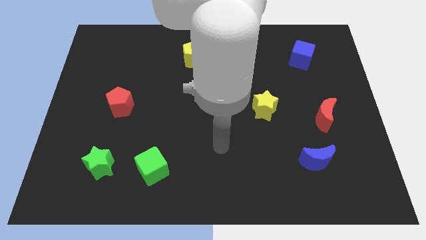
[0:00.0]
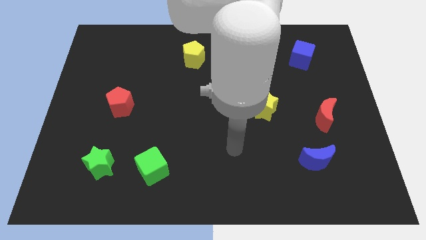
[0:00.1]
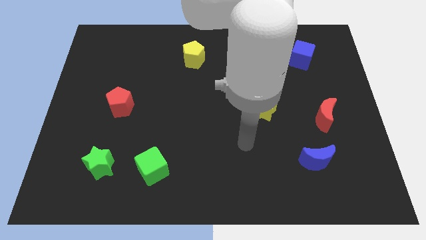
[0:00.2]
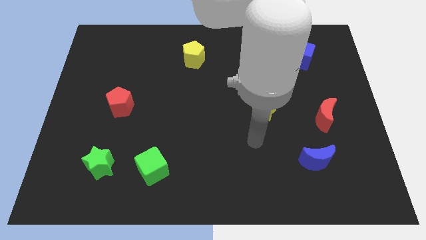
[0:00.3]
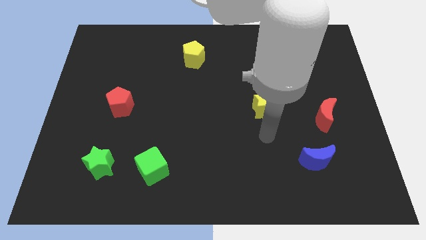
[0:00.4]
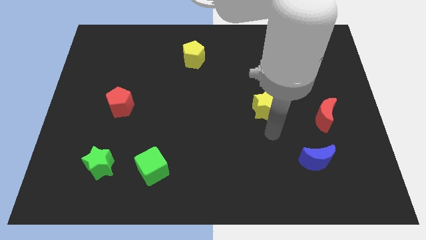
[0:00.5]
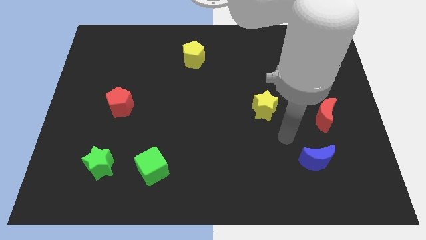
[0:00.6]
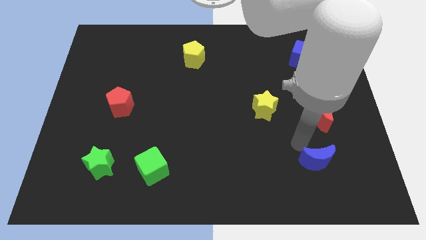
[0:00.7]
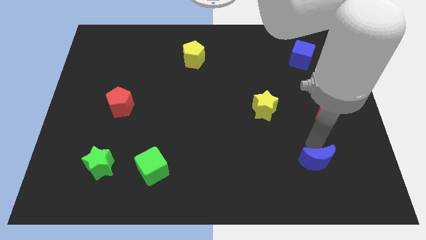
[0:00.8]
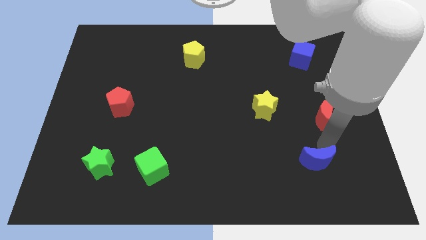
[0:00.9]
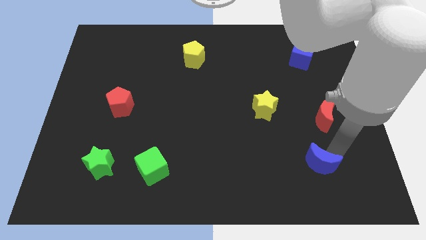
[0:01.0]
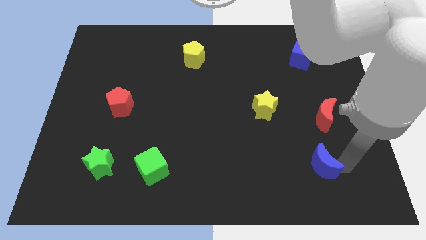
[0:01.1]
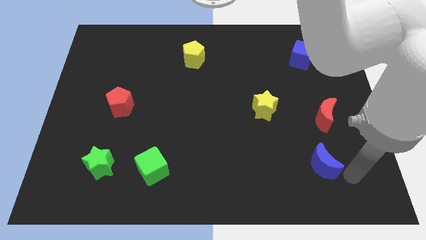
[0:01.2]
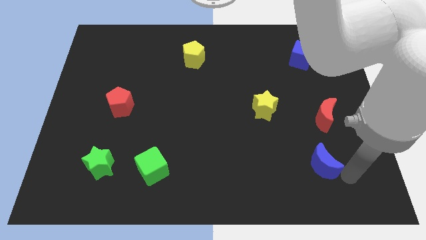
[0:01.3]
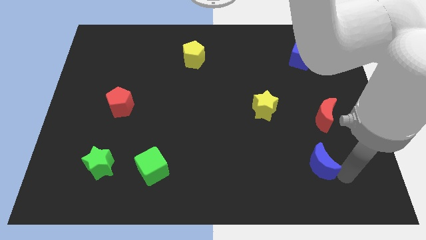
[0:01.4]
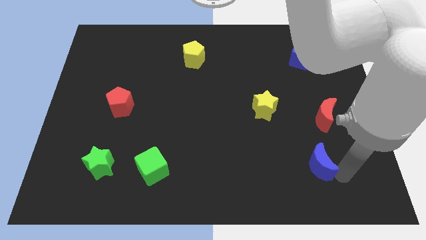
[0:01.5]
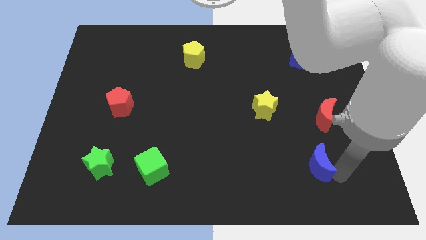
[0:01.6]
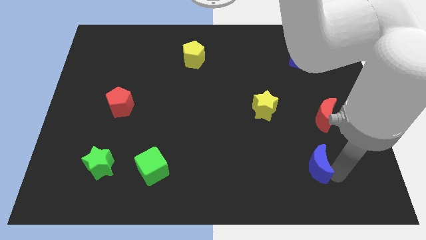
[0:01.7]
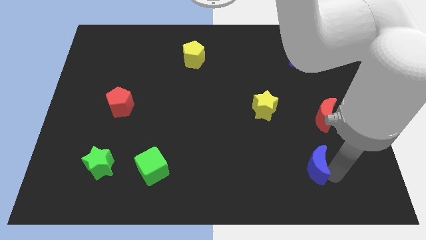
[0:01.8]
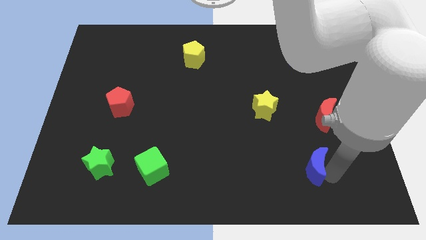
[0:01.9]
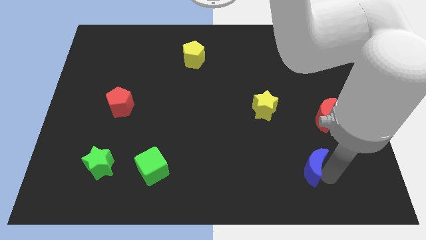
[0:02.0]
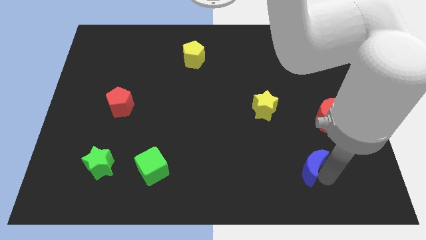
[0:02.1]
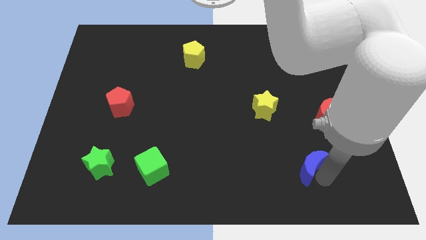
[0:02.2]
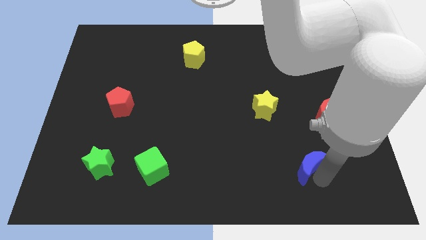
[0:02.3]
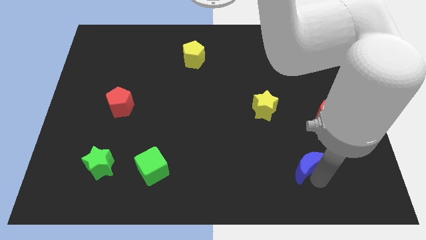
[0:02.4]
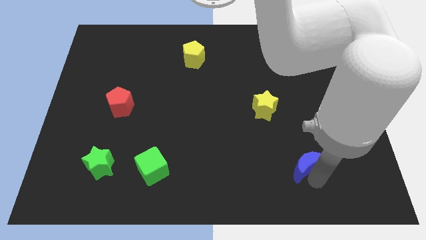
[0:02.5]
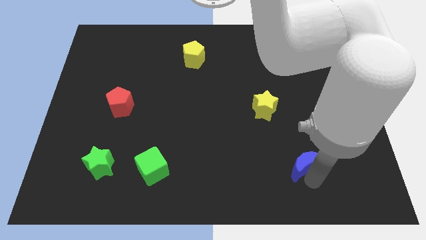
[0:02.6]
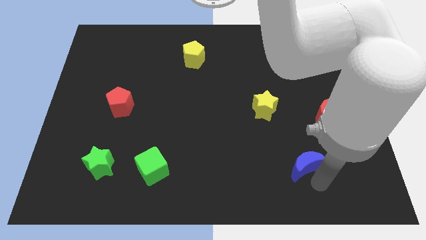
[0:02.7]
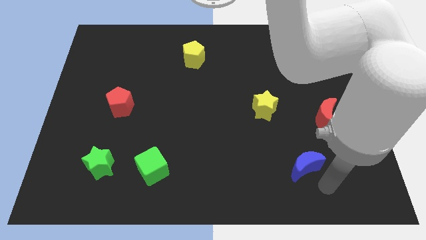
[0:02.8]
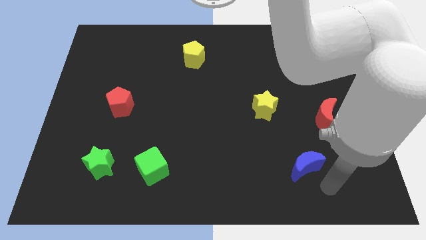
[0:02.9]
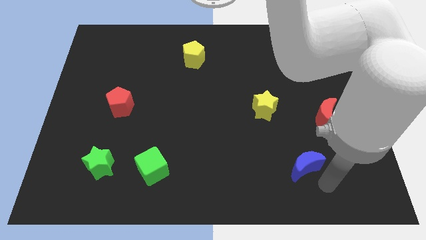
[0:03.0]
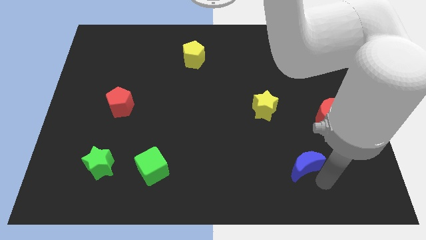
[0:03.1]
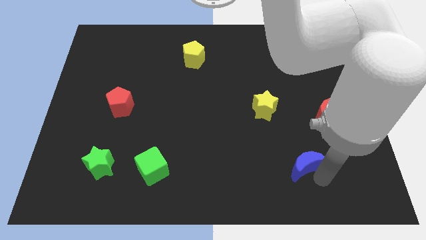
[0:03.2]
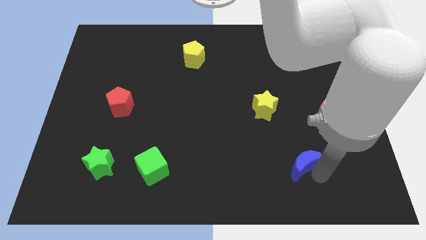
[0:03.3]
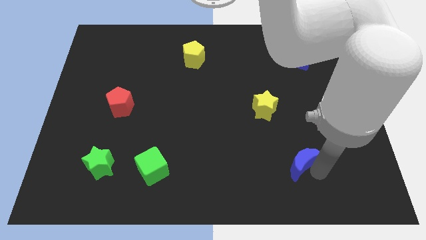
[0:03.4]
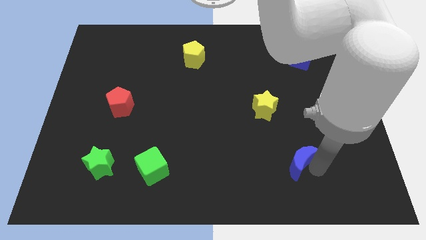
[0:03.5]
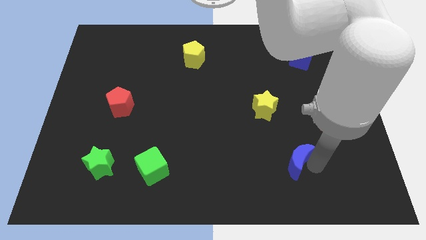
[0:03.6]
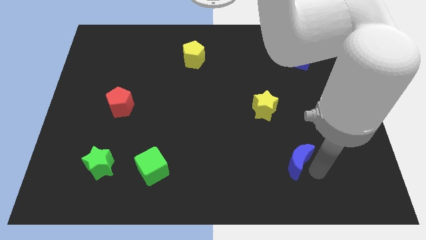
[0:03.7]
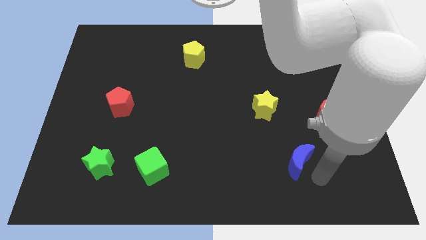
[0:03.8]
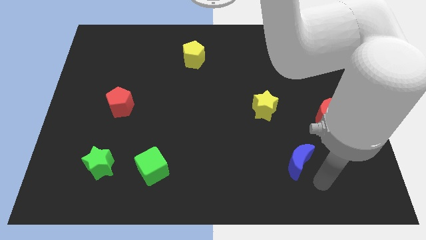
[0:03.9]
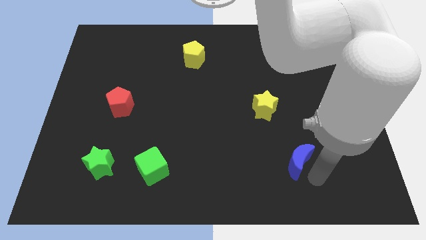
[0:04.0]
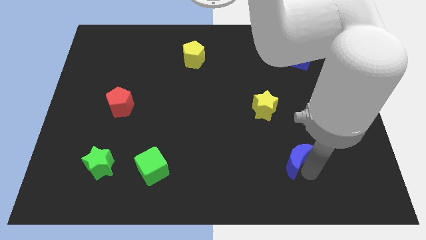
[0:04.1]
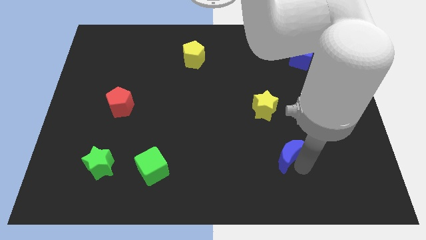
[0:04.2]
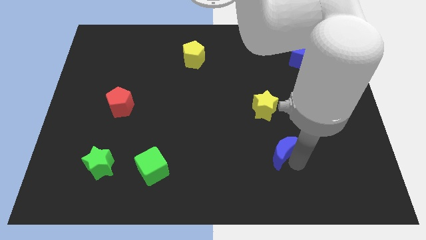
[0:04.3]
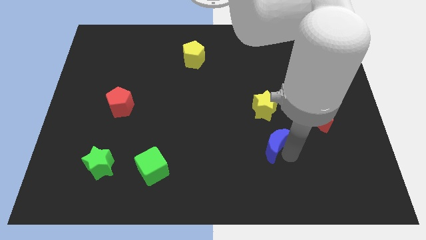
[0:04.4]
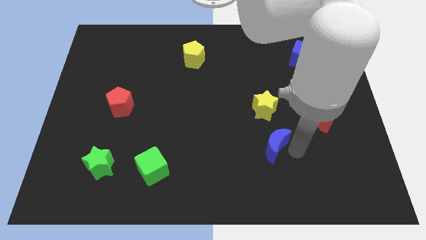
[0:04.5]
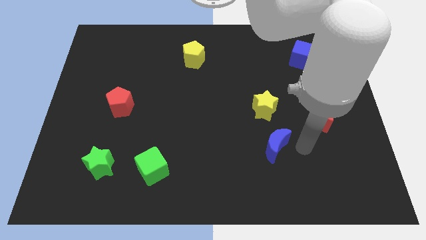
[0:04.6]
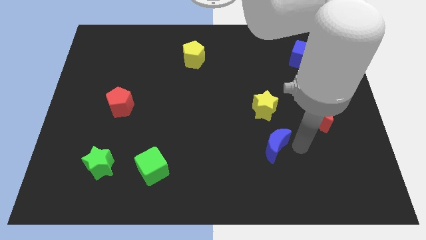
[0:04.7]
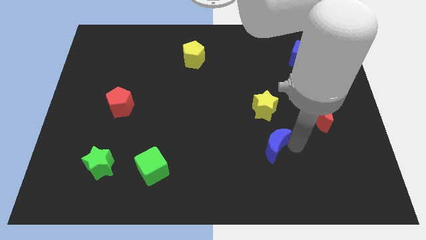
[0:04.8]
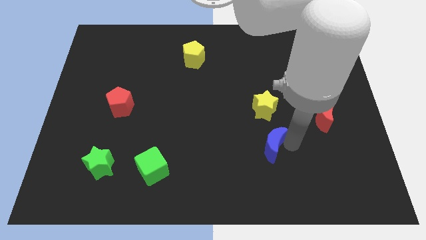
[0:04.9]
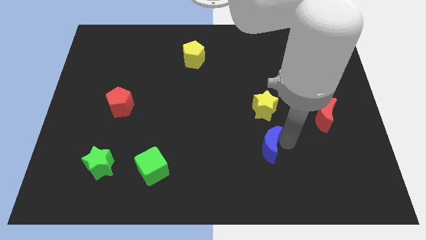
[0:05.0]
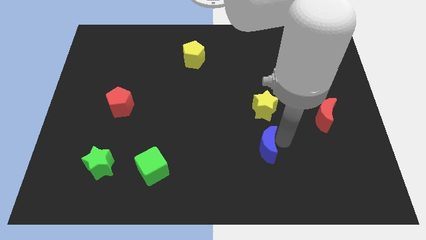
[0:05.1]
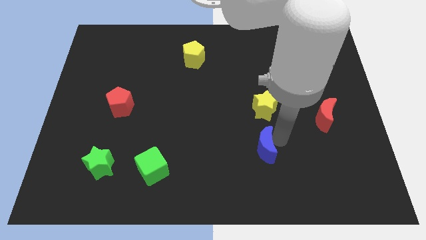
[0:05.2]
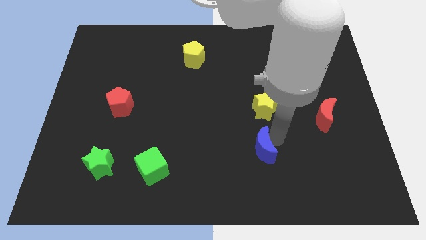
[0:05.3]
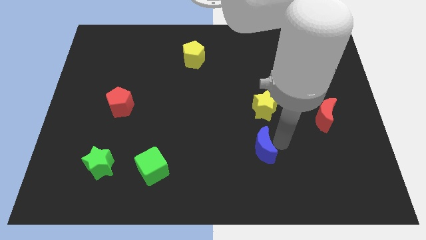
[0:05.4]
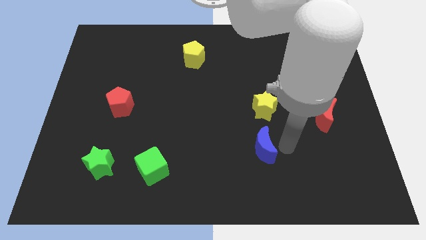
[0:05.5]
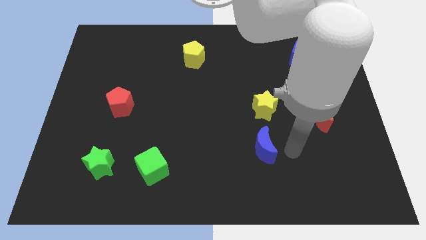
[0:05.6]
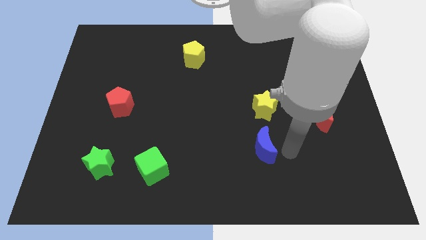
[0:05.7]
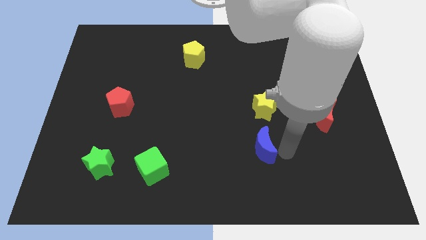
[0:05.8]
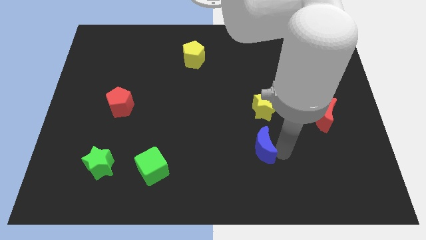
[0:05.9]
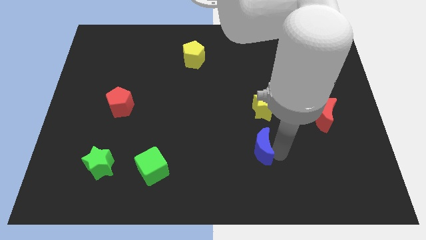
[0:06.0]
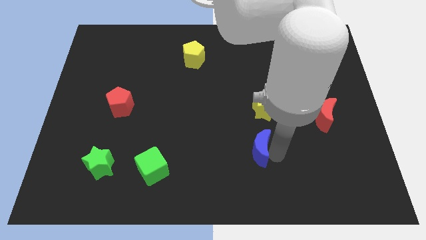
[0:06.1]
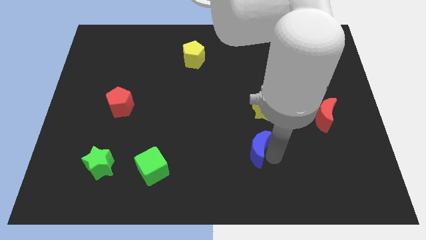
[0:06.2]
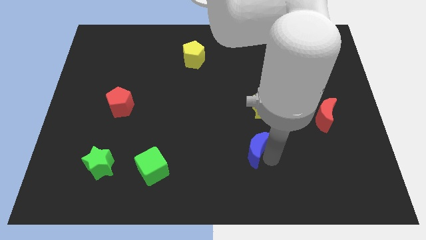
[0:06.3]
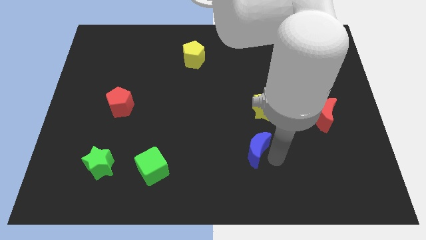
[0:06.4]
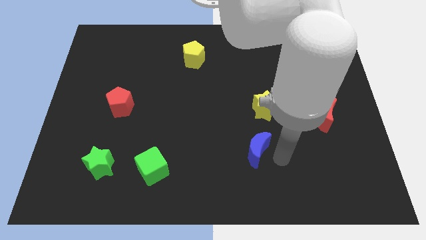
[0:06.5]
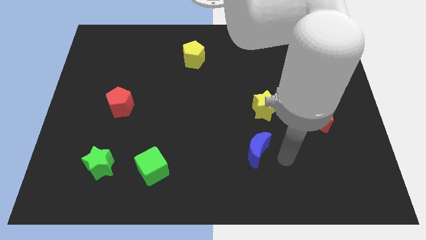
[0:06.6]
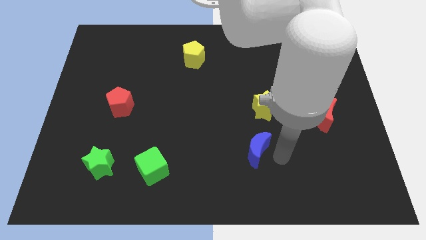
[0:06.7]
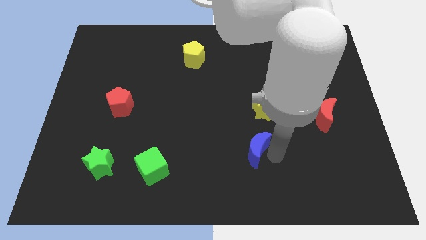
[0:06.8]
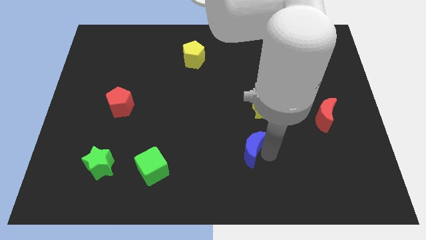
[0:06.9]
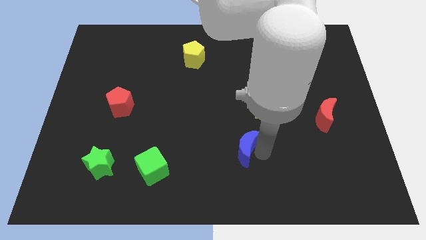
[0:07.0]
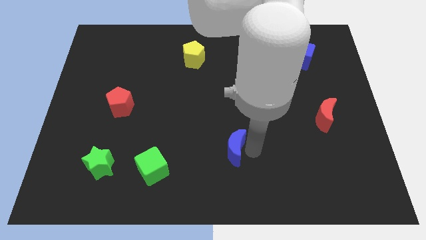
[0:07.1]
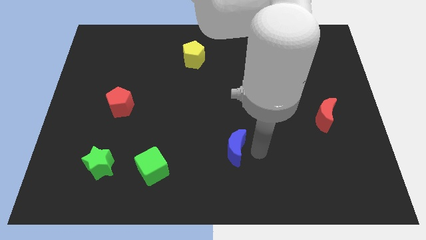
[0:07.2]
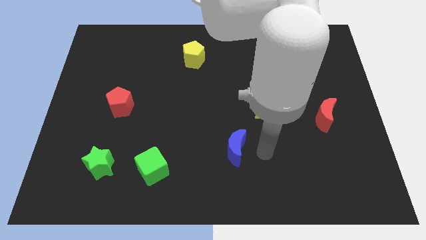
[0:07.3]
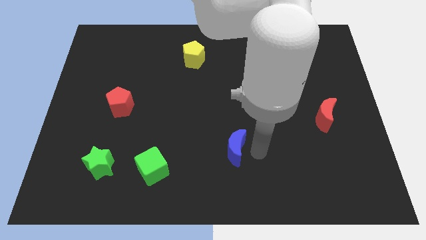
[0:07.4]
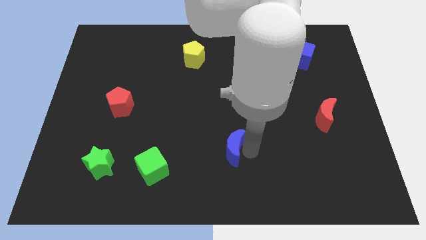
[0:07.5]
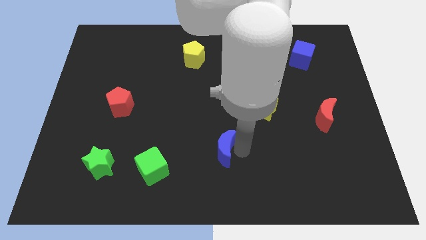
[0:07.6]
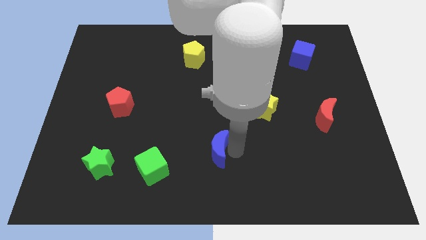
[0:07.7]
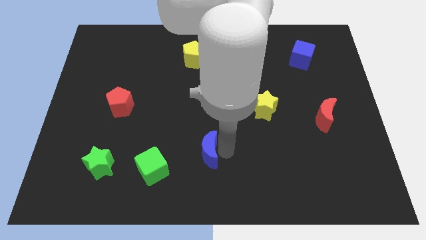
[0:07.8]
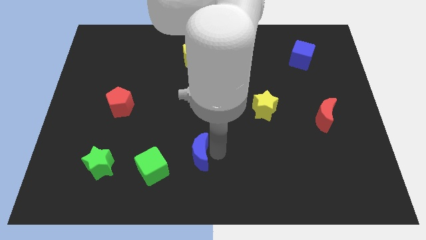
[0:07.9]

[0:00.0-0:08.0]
slide the blue moon diagonally up and to the right of the green cube
